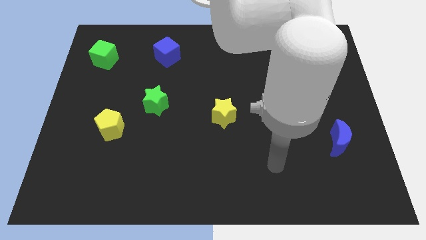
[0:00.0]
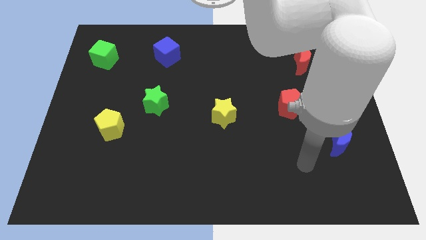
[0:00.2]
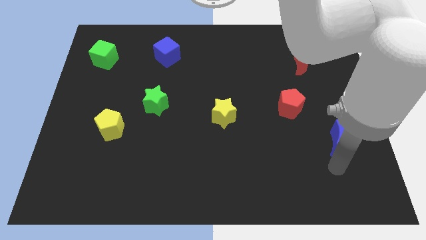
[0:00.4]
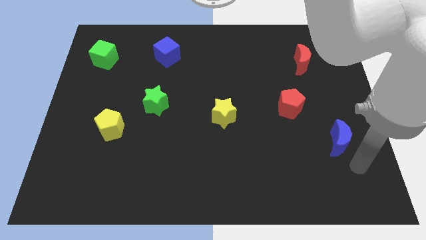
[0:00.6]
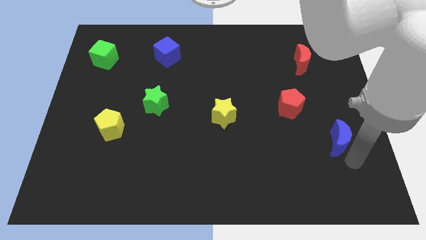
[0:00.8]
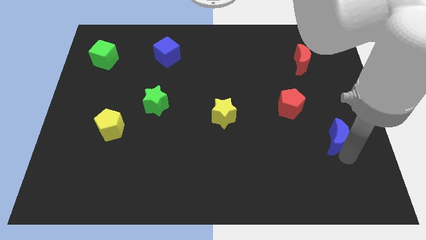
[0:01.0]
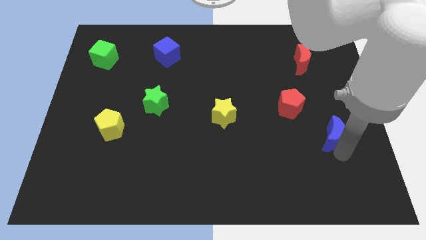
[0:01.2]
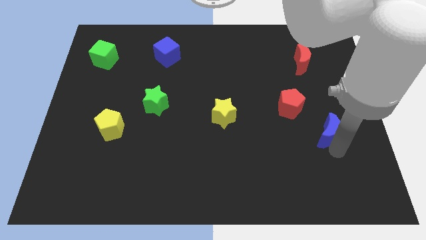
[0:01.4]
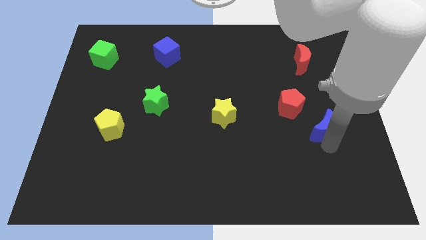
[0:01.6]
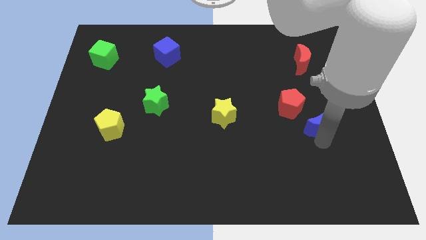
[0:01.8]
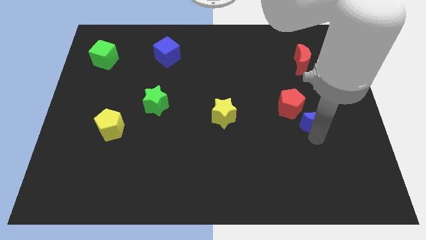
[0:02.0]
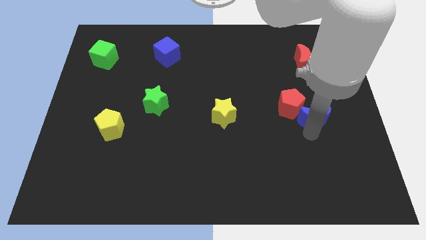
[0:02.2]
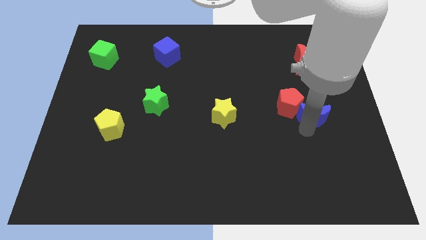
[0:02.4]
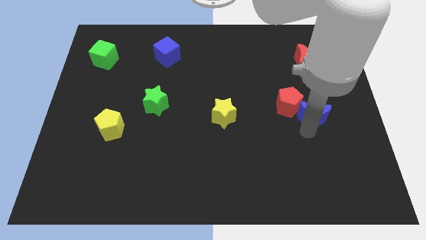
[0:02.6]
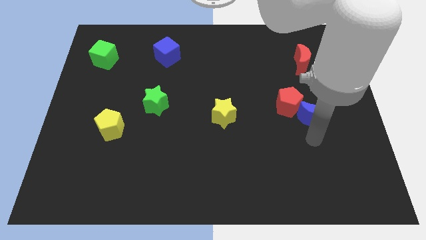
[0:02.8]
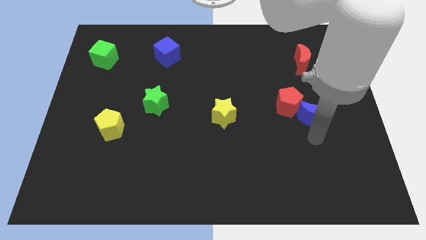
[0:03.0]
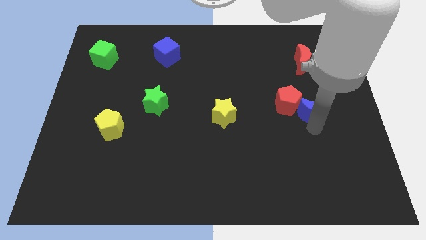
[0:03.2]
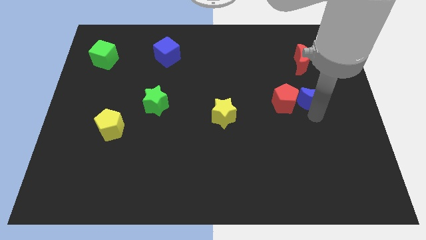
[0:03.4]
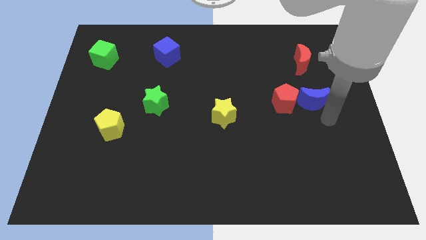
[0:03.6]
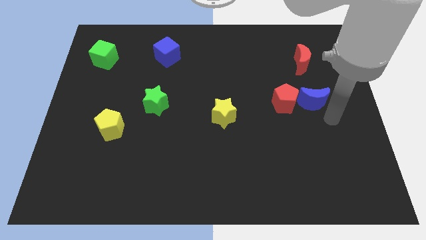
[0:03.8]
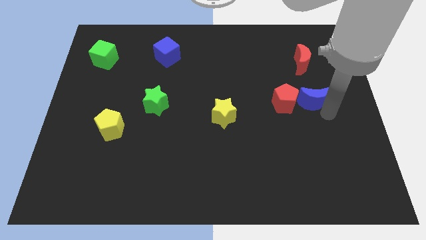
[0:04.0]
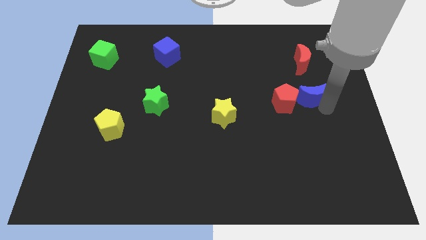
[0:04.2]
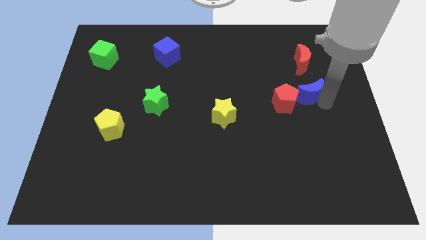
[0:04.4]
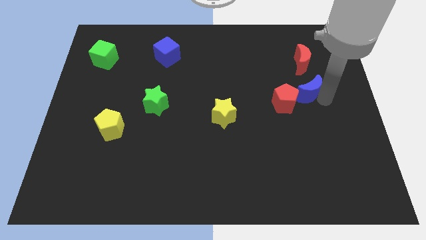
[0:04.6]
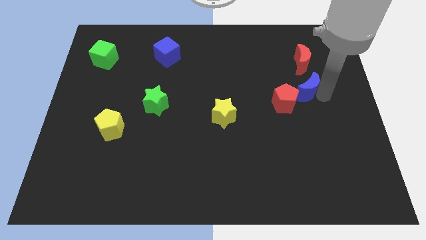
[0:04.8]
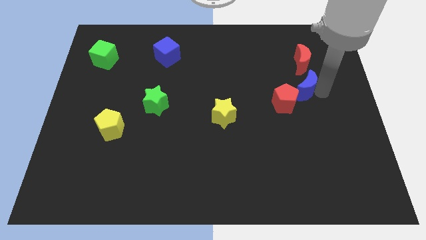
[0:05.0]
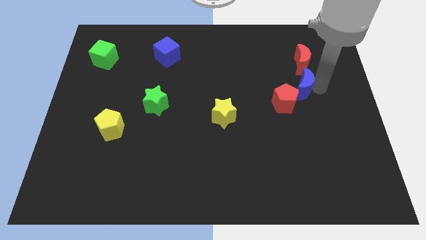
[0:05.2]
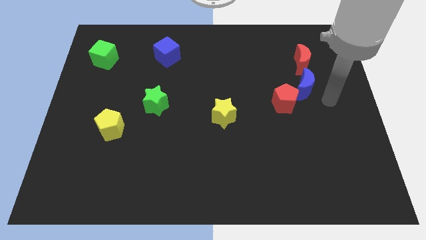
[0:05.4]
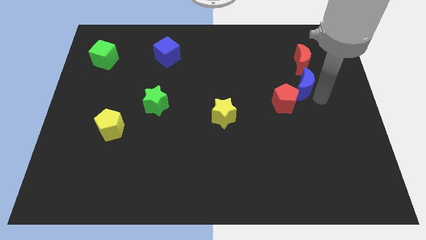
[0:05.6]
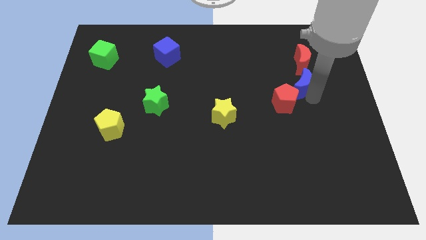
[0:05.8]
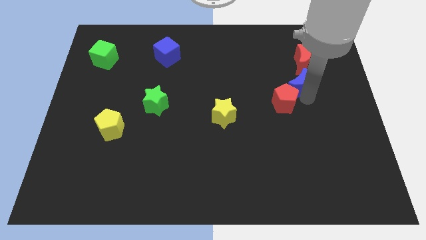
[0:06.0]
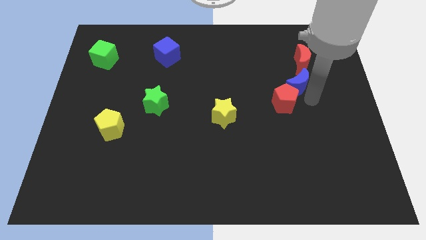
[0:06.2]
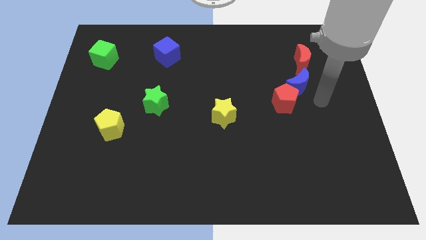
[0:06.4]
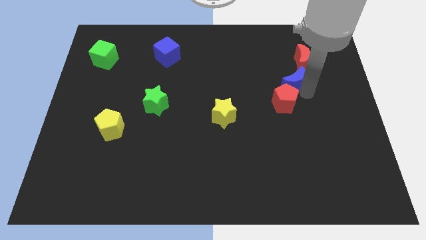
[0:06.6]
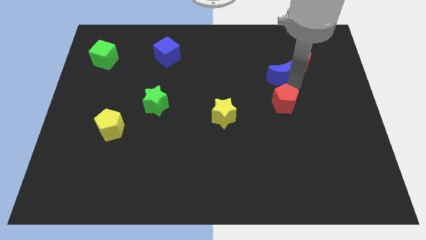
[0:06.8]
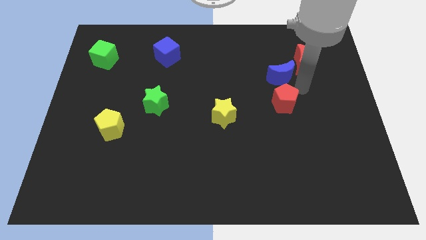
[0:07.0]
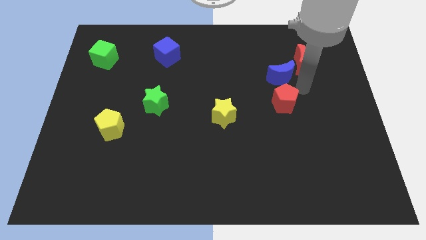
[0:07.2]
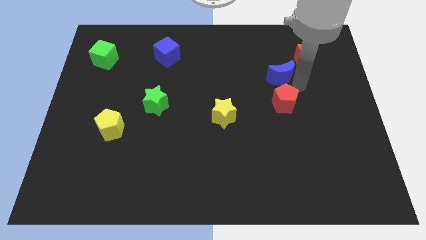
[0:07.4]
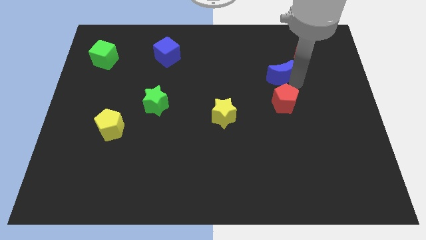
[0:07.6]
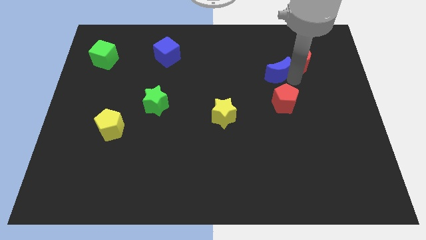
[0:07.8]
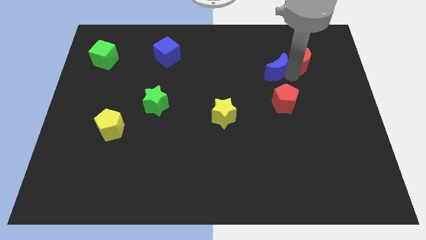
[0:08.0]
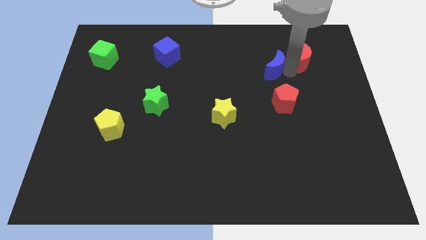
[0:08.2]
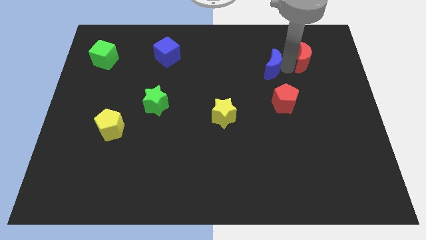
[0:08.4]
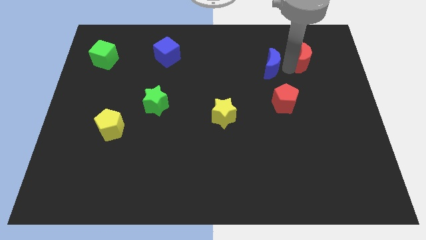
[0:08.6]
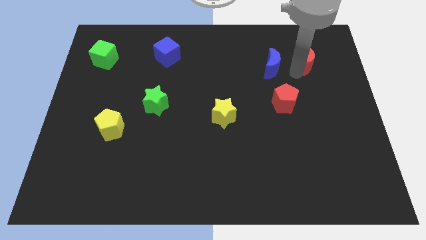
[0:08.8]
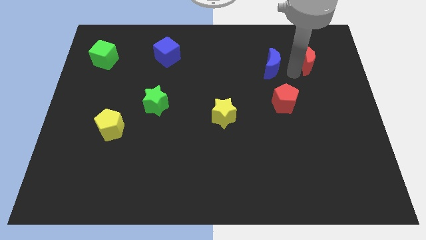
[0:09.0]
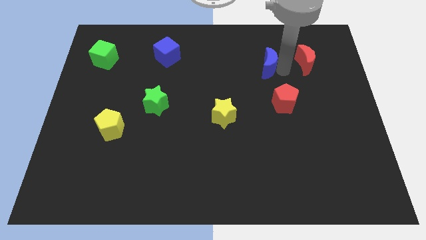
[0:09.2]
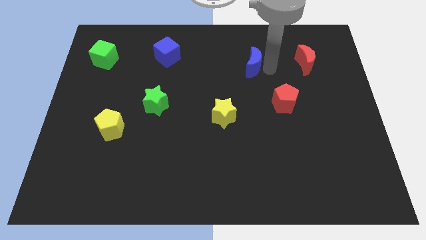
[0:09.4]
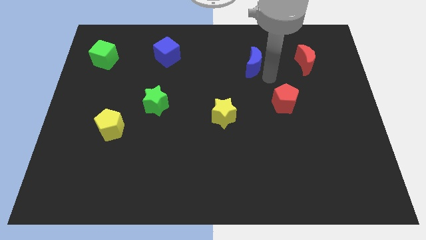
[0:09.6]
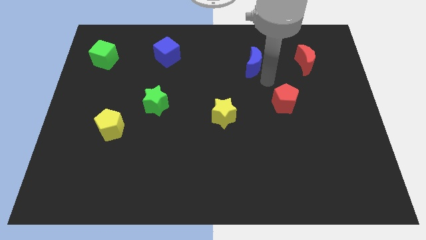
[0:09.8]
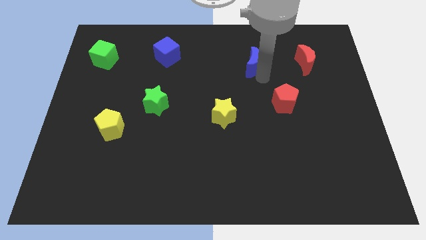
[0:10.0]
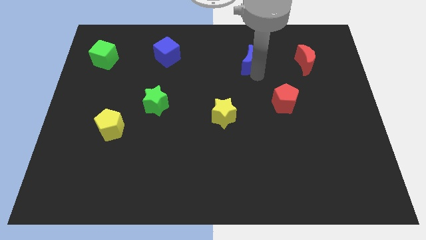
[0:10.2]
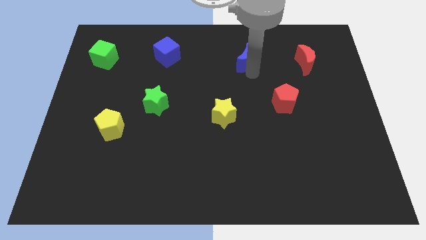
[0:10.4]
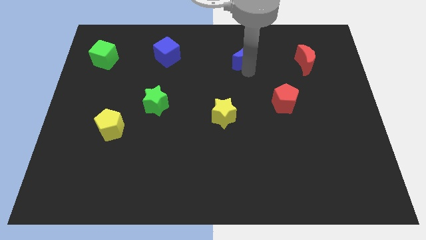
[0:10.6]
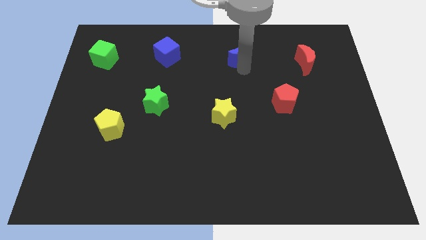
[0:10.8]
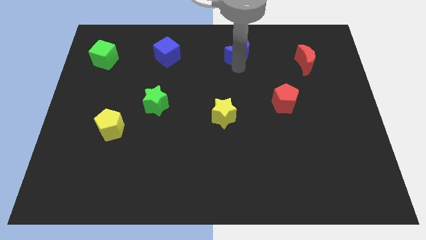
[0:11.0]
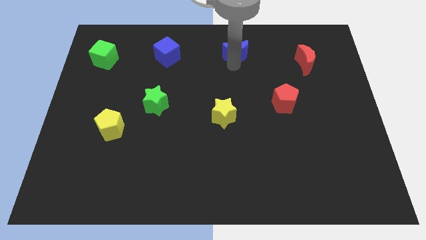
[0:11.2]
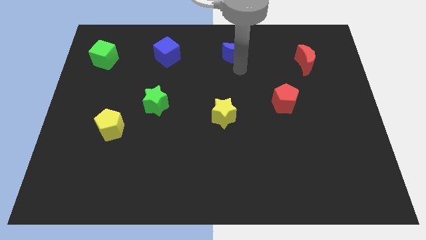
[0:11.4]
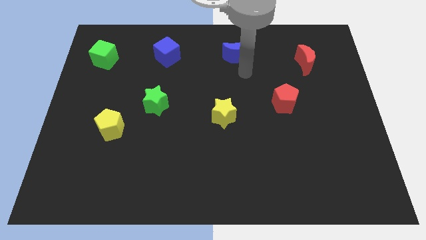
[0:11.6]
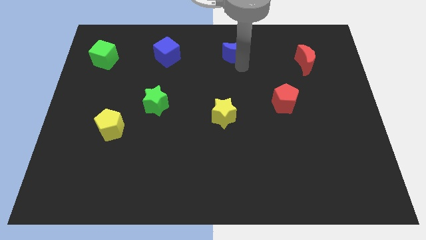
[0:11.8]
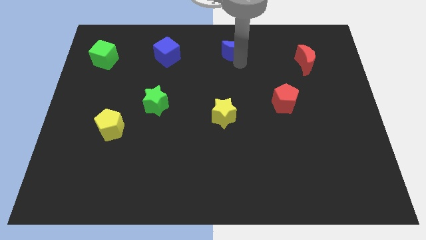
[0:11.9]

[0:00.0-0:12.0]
put the blue moon to the towards your base

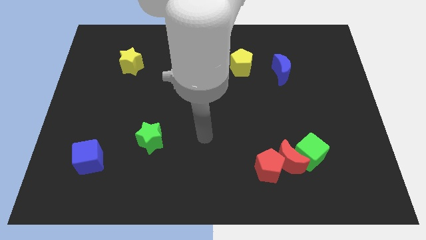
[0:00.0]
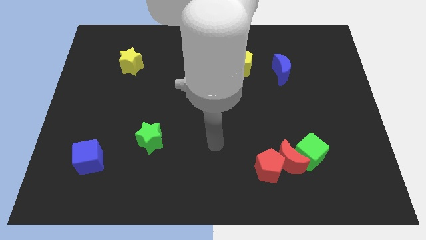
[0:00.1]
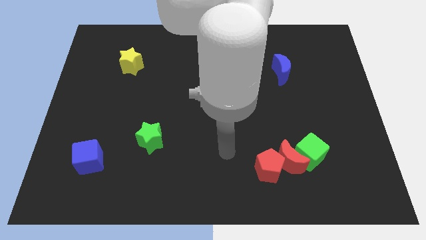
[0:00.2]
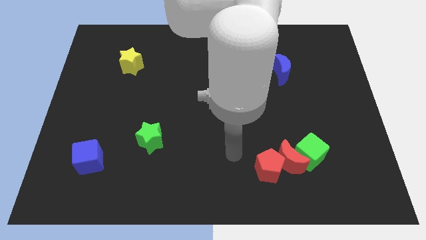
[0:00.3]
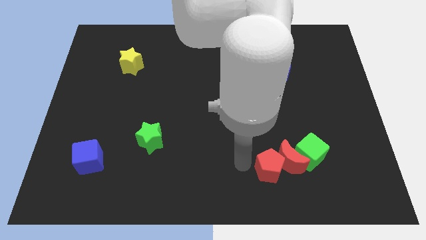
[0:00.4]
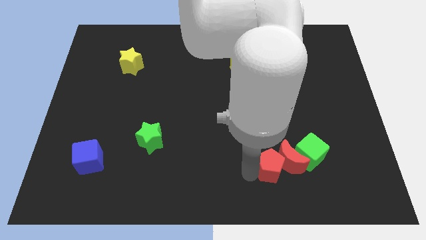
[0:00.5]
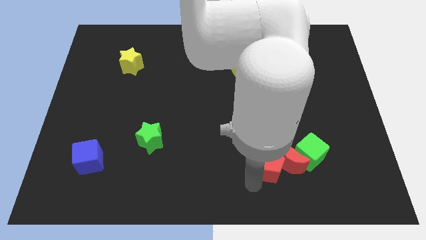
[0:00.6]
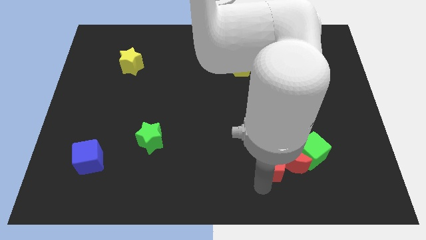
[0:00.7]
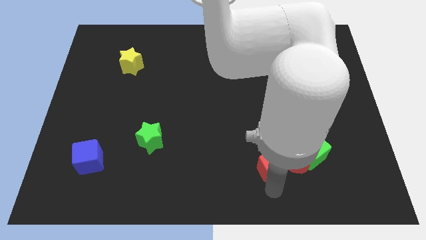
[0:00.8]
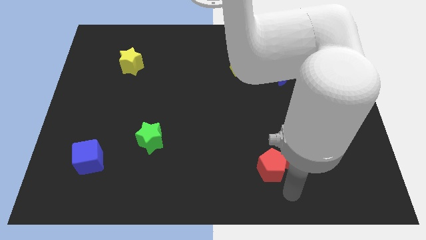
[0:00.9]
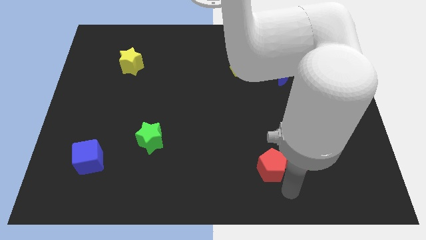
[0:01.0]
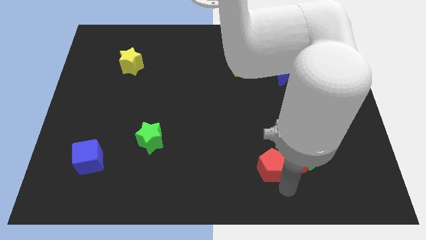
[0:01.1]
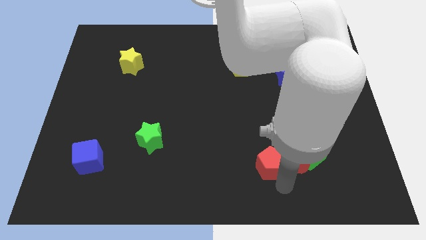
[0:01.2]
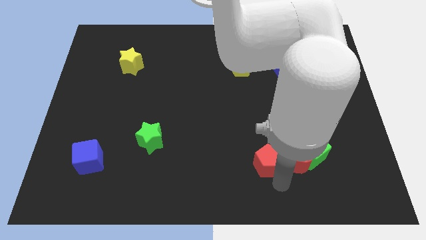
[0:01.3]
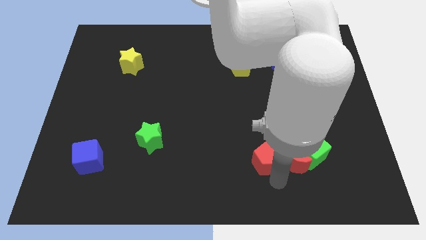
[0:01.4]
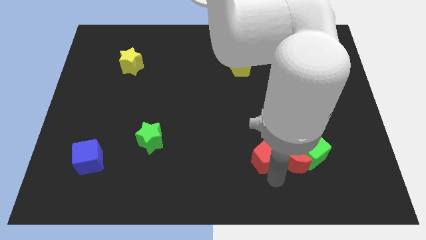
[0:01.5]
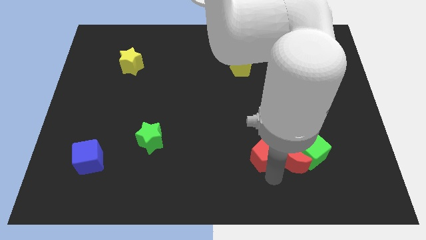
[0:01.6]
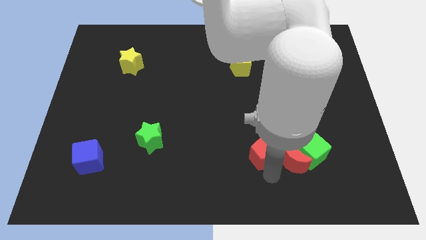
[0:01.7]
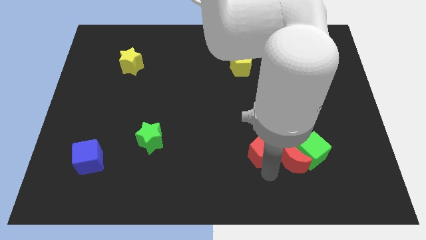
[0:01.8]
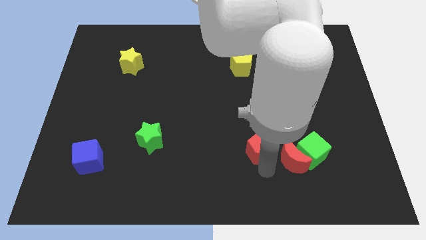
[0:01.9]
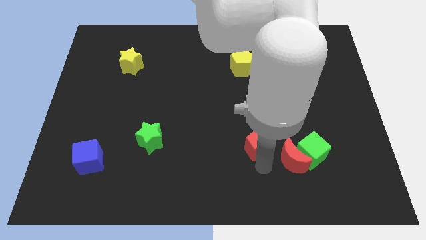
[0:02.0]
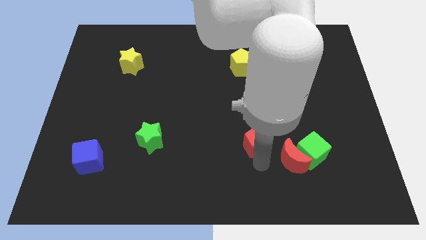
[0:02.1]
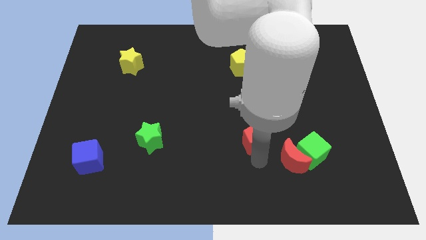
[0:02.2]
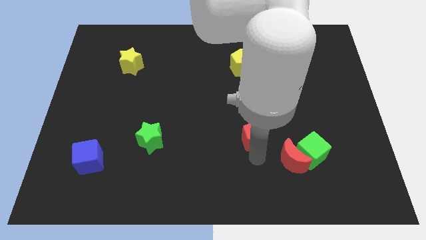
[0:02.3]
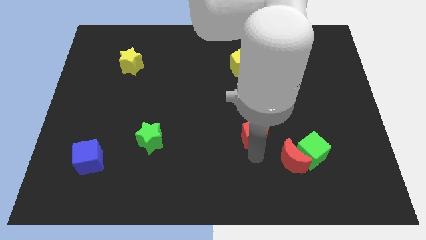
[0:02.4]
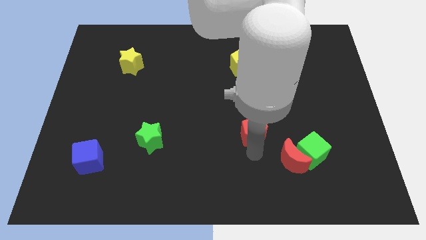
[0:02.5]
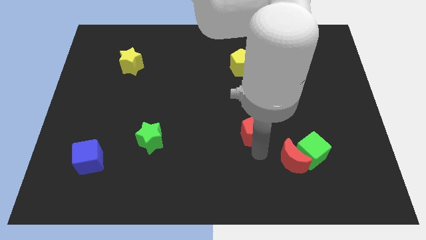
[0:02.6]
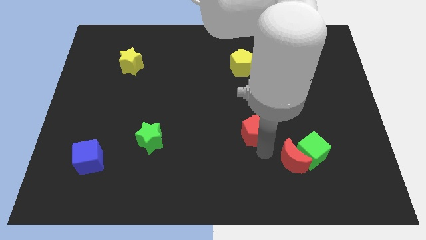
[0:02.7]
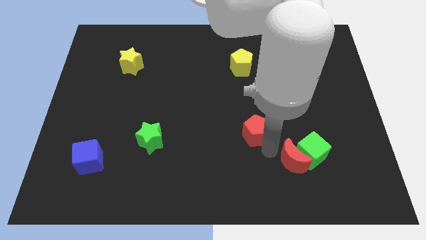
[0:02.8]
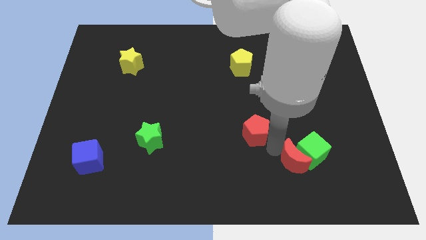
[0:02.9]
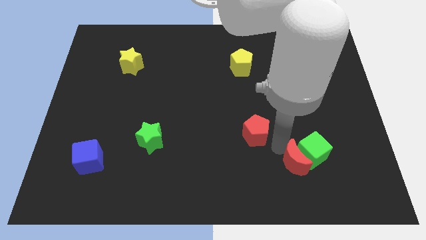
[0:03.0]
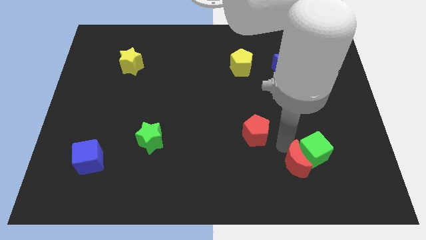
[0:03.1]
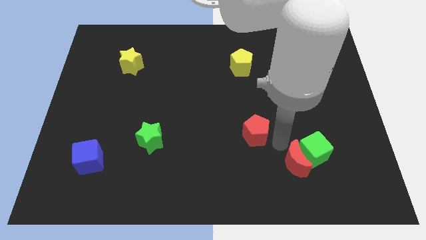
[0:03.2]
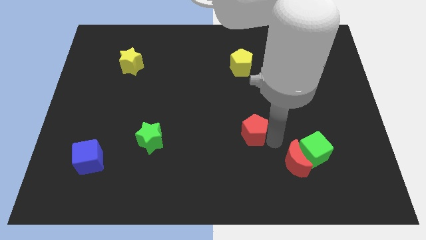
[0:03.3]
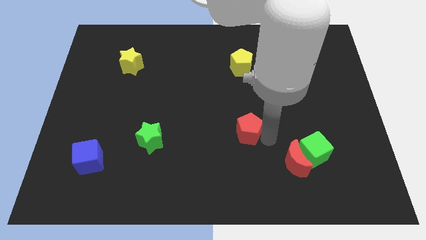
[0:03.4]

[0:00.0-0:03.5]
slide the red pentagon to the center of the board
